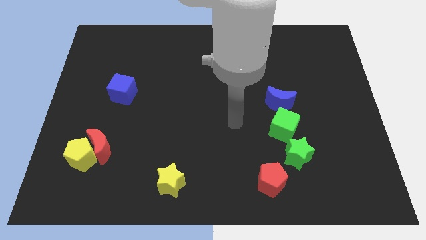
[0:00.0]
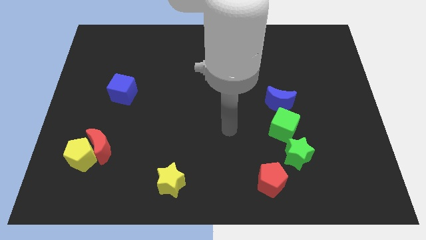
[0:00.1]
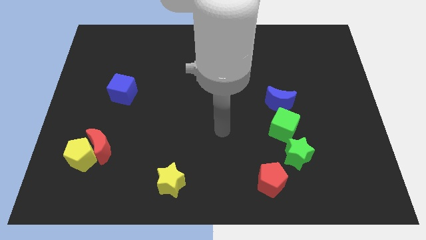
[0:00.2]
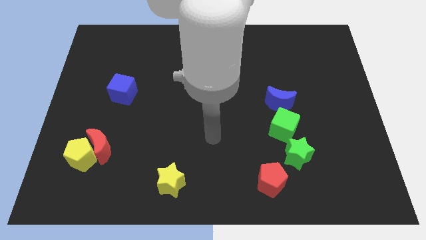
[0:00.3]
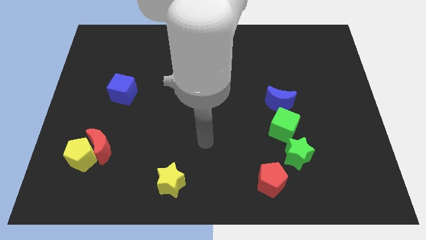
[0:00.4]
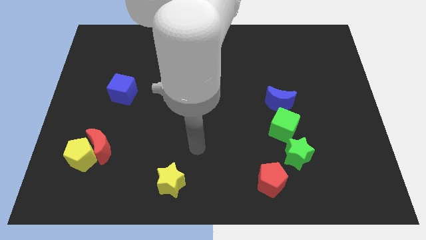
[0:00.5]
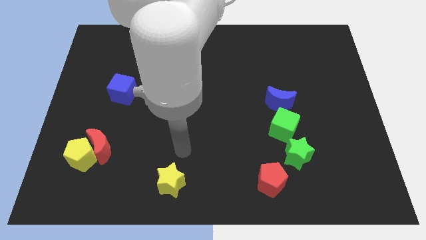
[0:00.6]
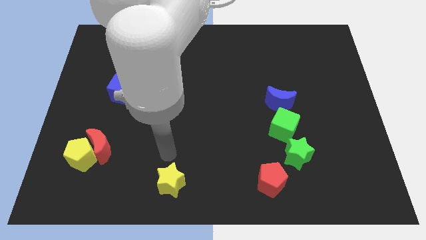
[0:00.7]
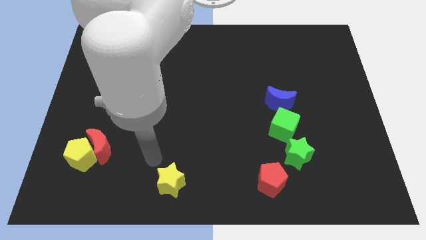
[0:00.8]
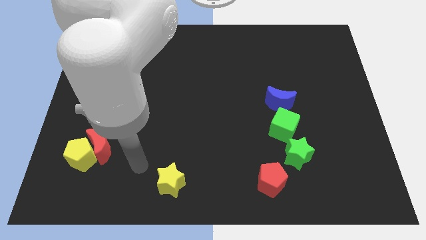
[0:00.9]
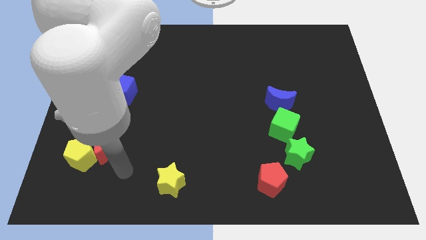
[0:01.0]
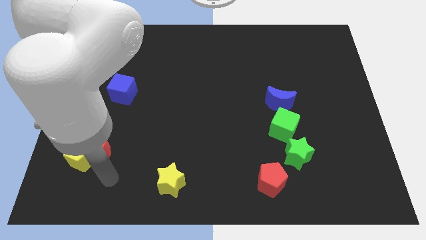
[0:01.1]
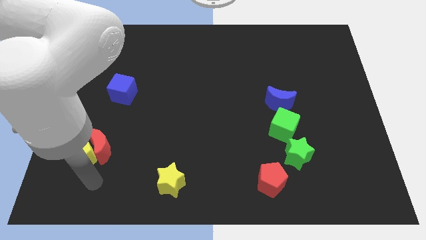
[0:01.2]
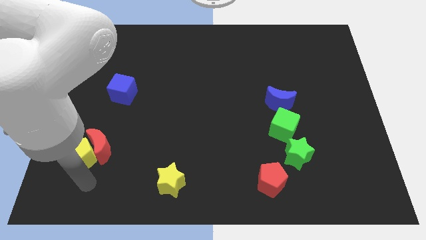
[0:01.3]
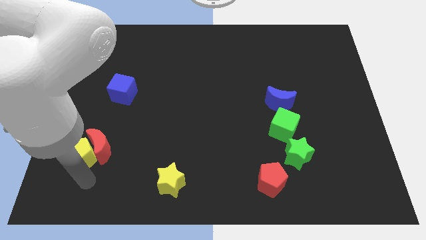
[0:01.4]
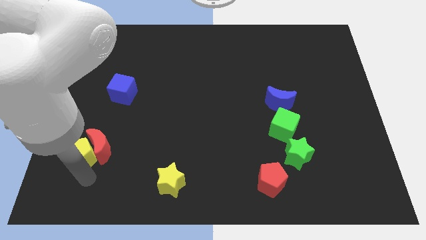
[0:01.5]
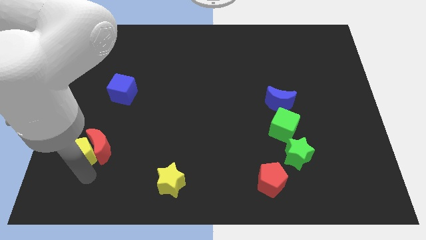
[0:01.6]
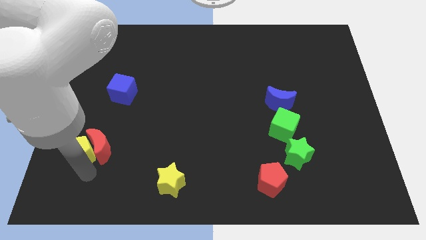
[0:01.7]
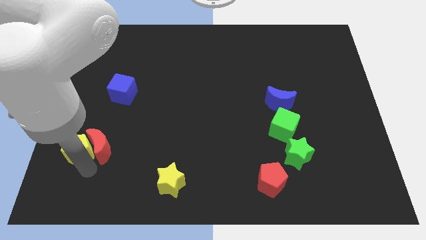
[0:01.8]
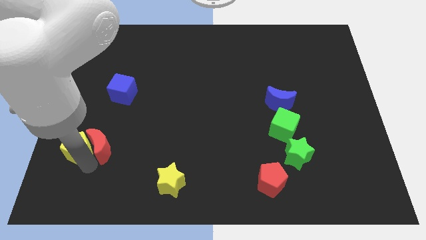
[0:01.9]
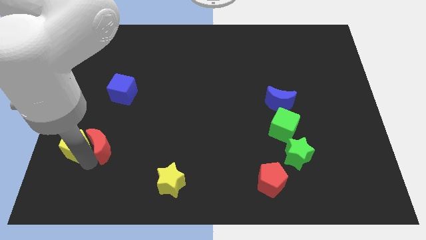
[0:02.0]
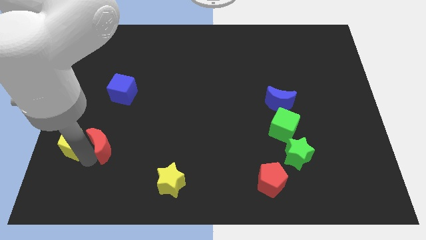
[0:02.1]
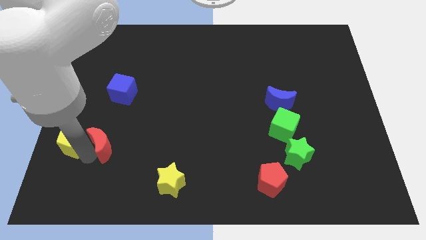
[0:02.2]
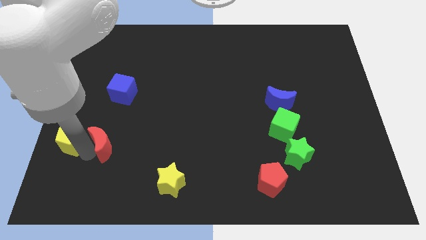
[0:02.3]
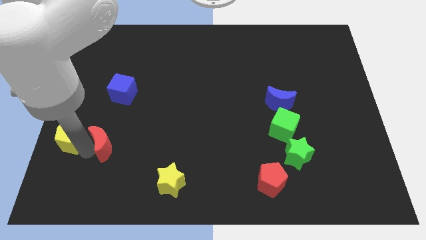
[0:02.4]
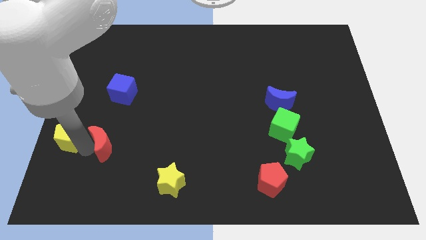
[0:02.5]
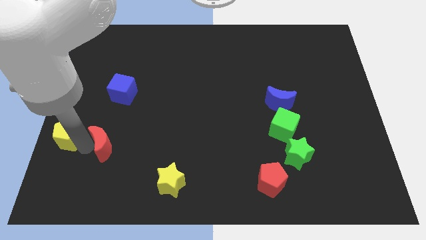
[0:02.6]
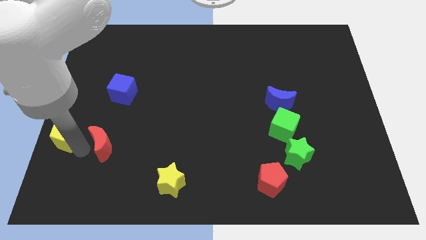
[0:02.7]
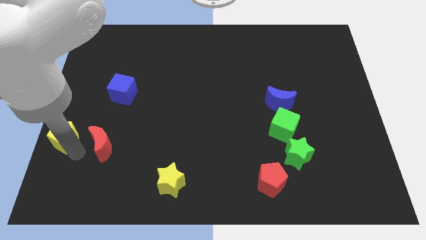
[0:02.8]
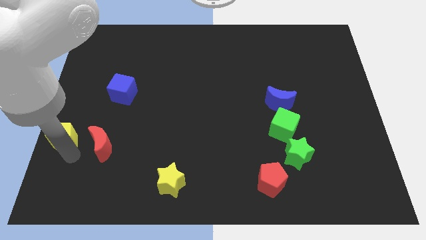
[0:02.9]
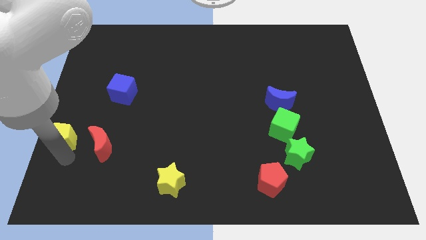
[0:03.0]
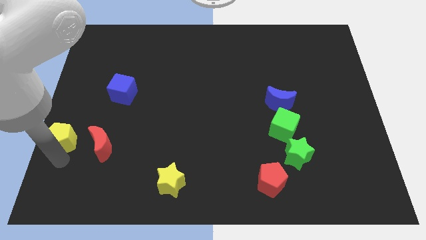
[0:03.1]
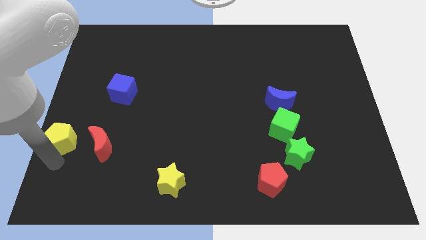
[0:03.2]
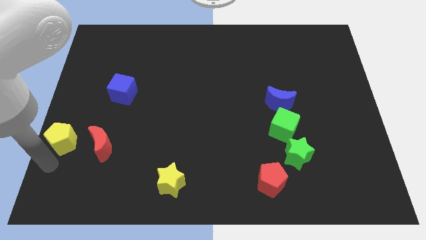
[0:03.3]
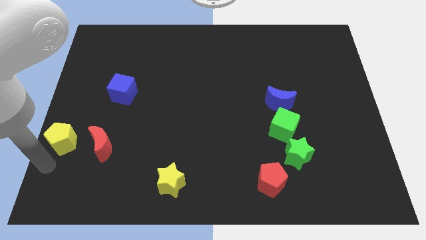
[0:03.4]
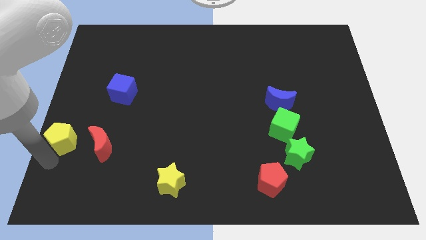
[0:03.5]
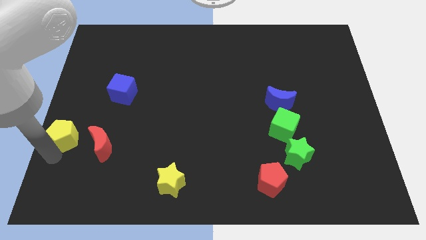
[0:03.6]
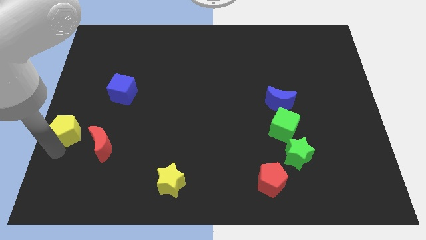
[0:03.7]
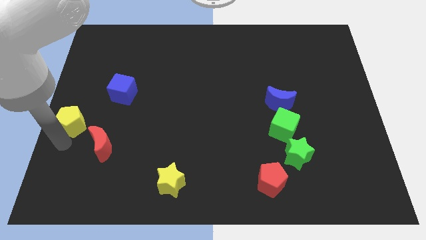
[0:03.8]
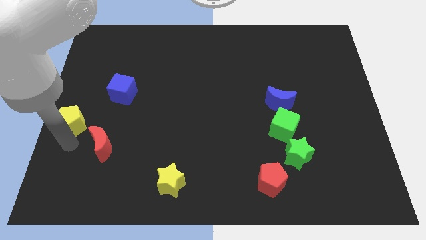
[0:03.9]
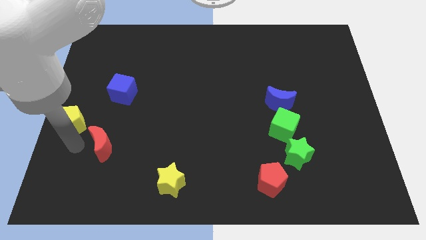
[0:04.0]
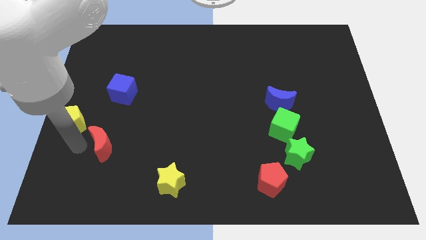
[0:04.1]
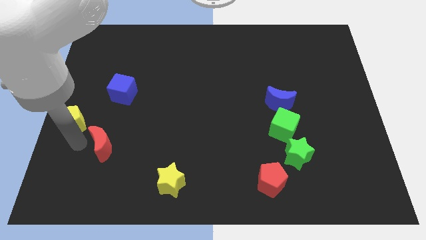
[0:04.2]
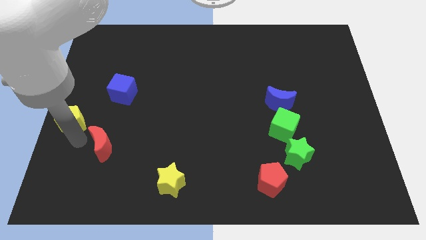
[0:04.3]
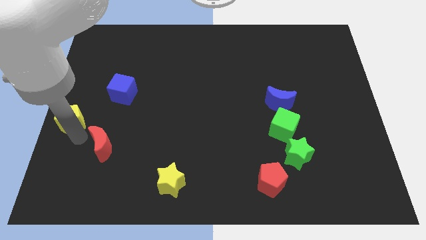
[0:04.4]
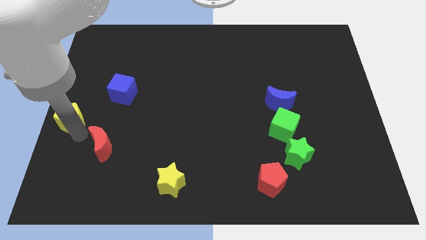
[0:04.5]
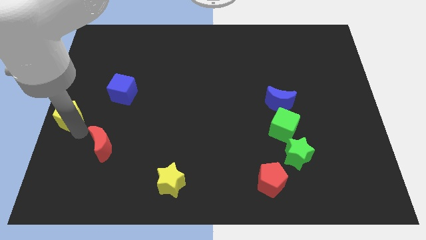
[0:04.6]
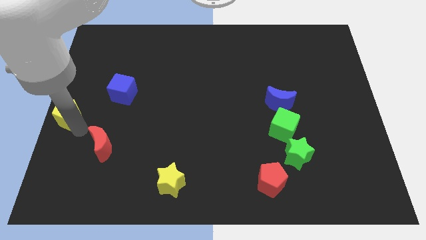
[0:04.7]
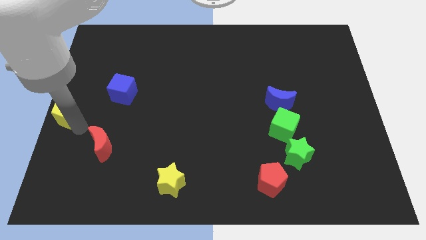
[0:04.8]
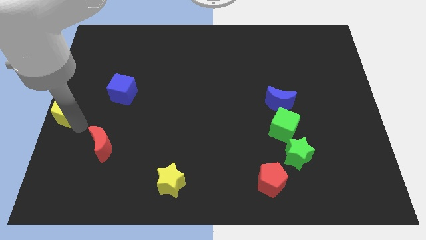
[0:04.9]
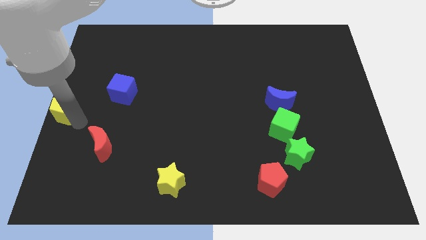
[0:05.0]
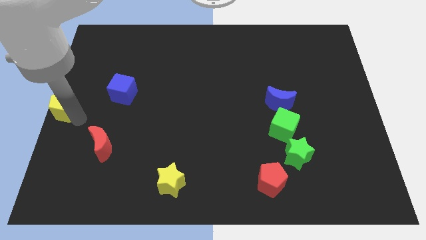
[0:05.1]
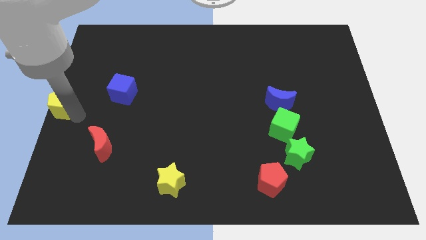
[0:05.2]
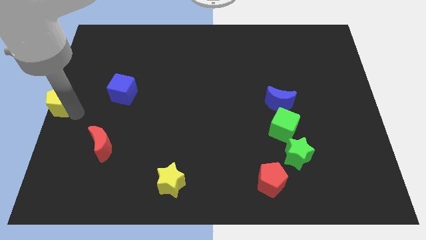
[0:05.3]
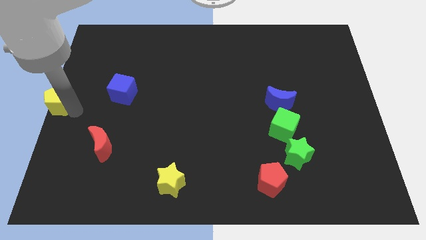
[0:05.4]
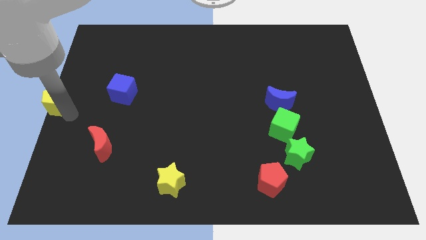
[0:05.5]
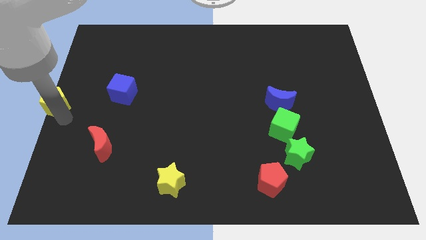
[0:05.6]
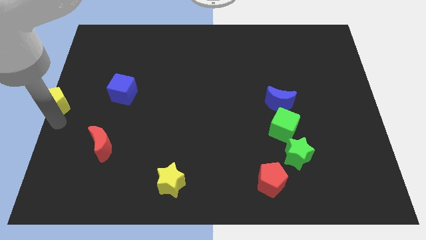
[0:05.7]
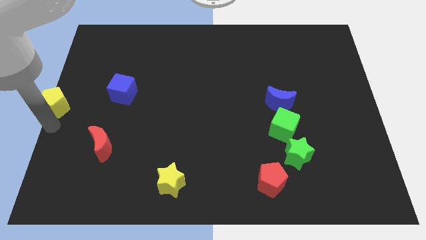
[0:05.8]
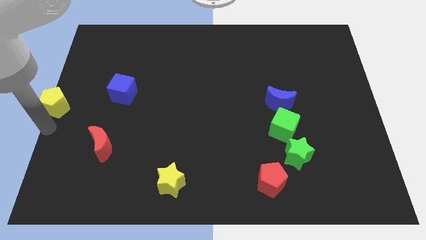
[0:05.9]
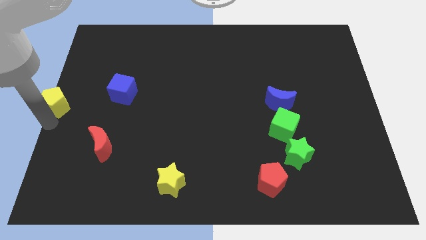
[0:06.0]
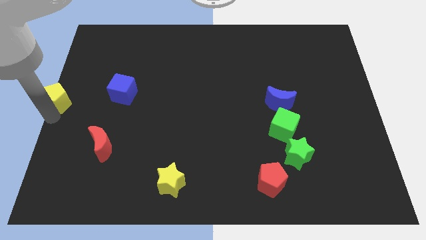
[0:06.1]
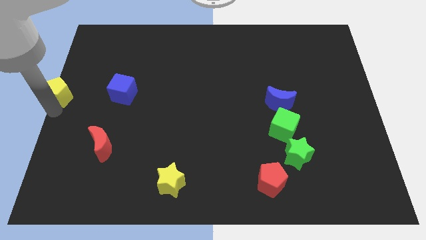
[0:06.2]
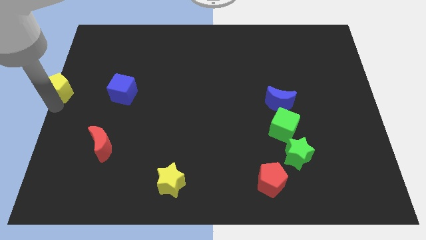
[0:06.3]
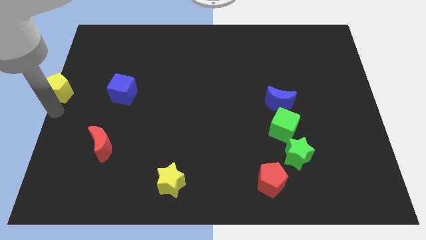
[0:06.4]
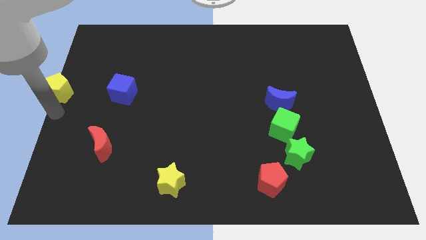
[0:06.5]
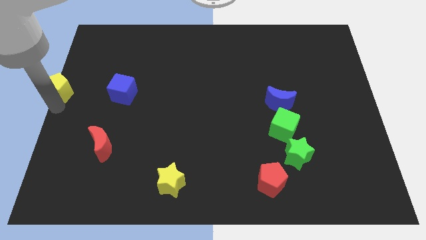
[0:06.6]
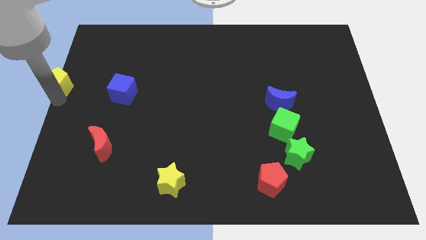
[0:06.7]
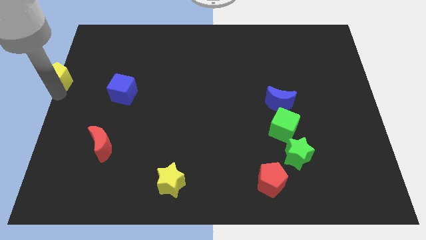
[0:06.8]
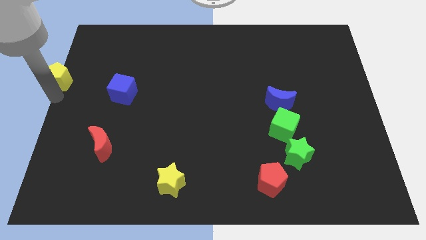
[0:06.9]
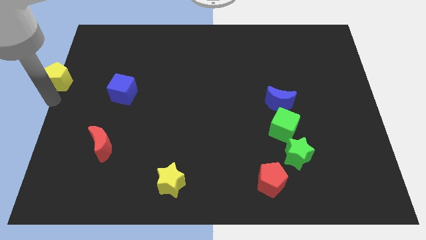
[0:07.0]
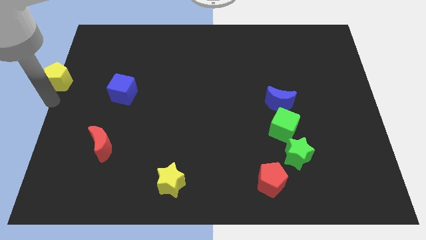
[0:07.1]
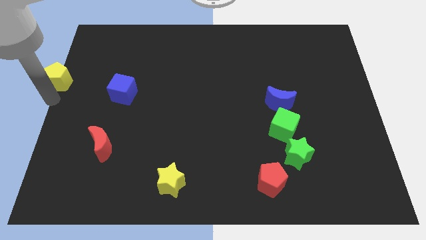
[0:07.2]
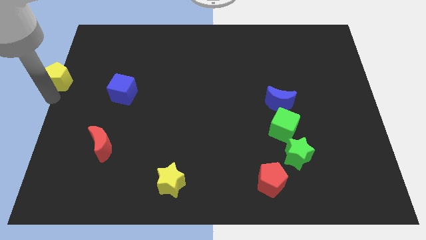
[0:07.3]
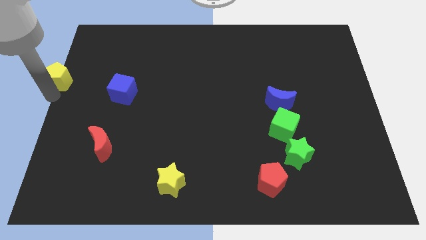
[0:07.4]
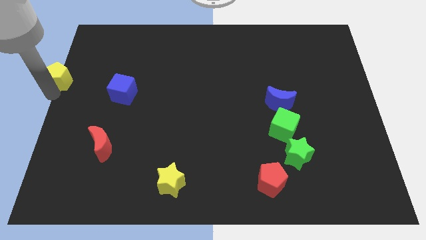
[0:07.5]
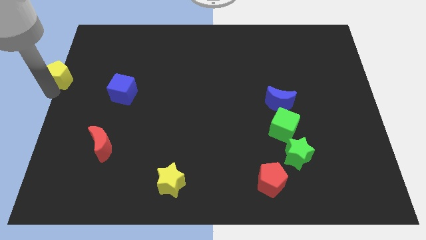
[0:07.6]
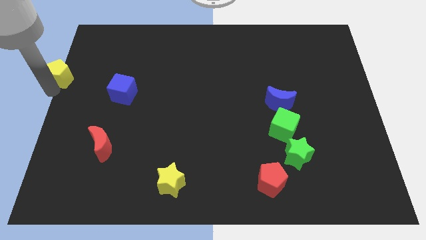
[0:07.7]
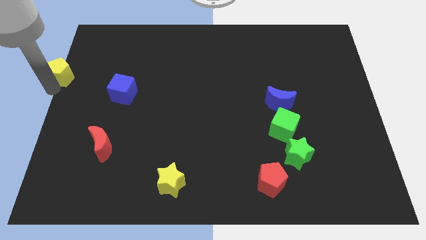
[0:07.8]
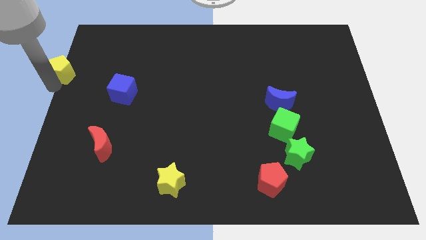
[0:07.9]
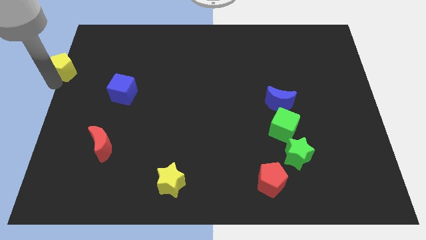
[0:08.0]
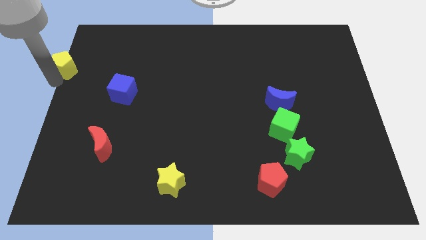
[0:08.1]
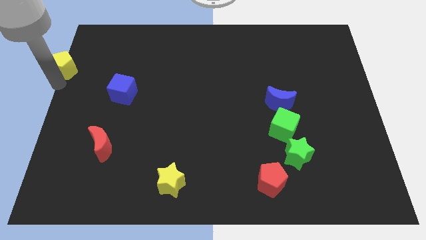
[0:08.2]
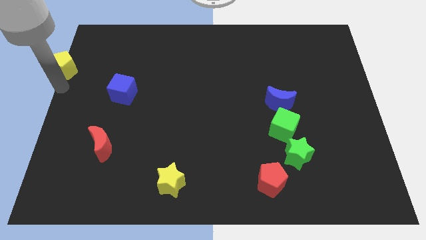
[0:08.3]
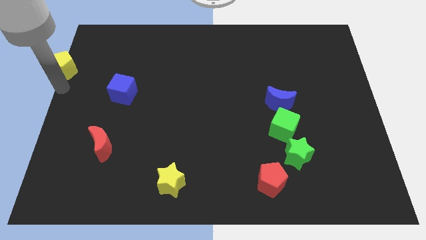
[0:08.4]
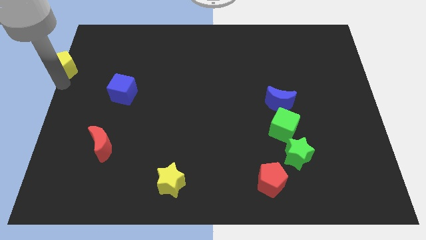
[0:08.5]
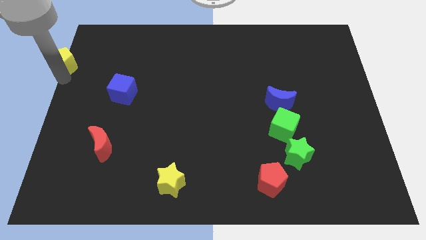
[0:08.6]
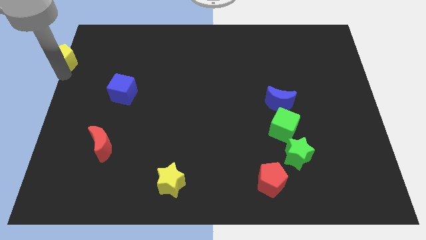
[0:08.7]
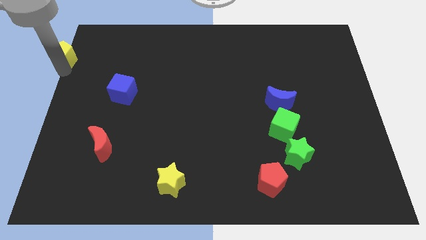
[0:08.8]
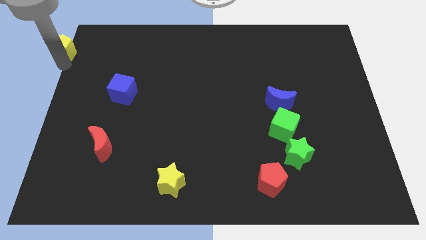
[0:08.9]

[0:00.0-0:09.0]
put the yellow pentagon to the top left of the board
